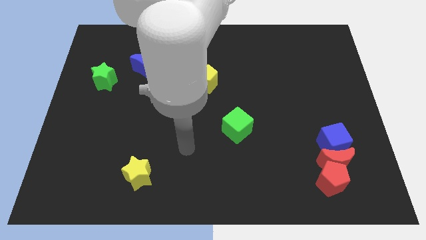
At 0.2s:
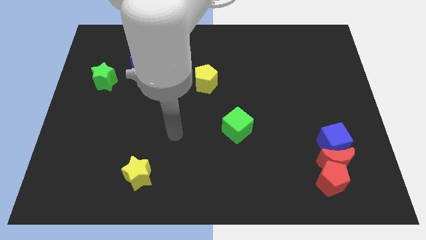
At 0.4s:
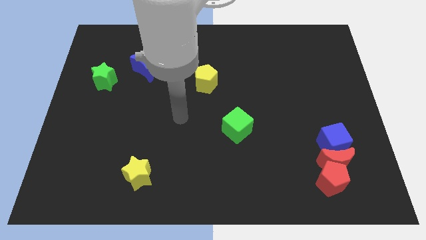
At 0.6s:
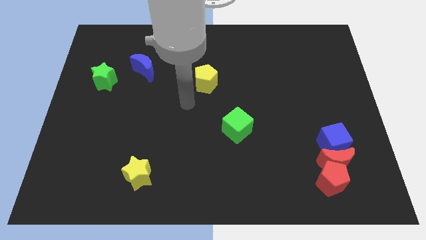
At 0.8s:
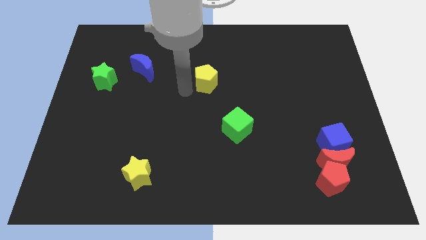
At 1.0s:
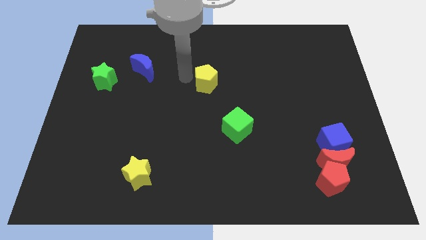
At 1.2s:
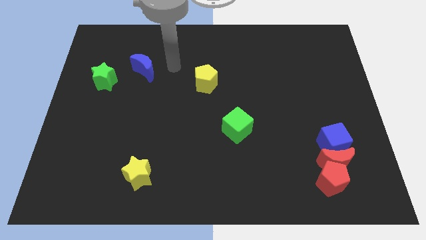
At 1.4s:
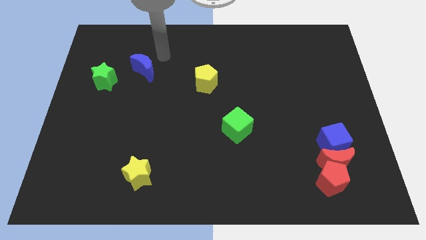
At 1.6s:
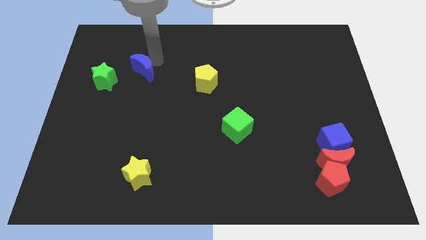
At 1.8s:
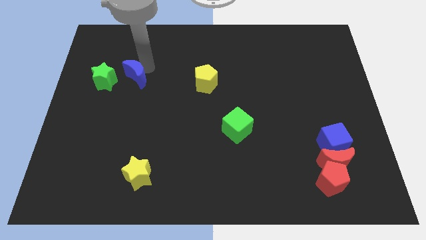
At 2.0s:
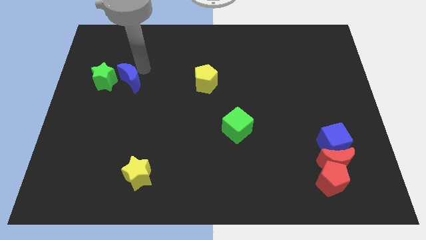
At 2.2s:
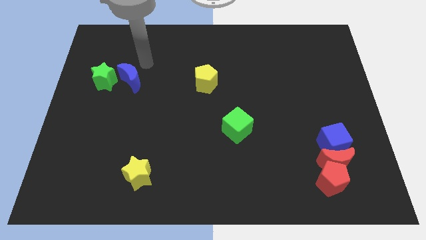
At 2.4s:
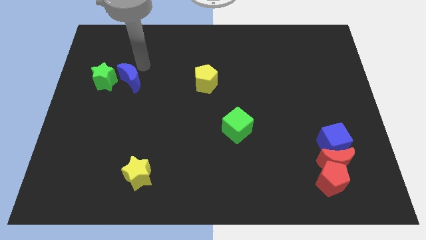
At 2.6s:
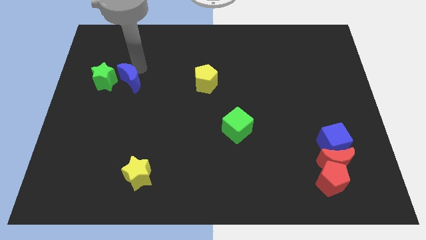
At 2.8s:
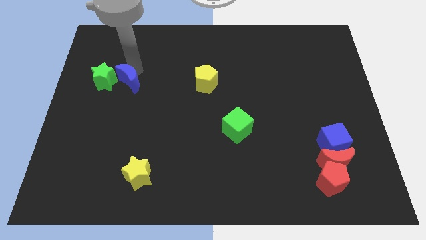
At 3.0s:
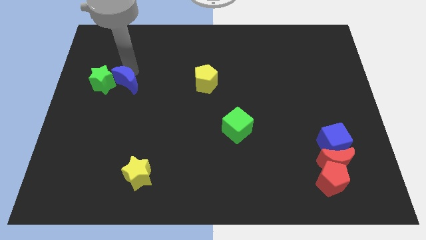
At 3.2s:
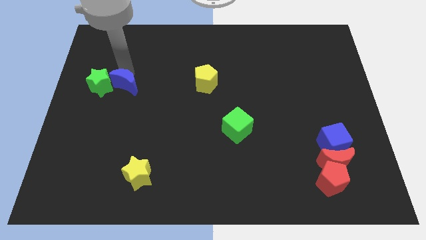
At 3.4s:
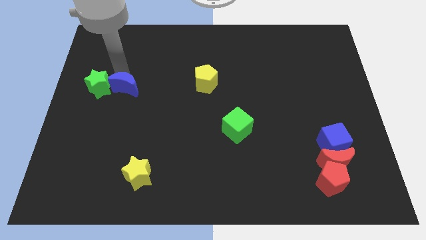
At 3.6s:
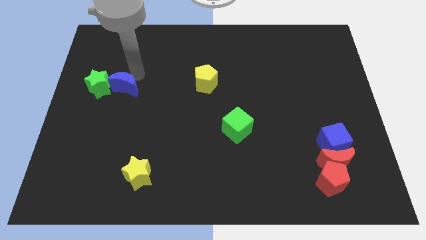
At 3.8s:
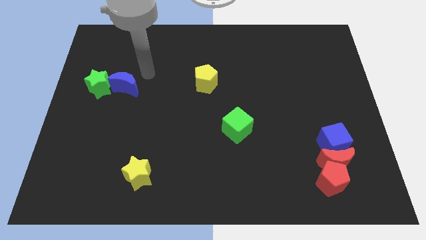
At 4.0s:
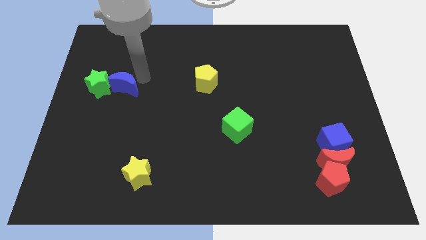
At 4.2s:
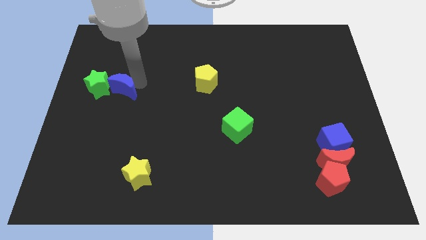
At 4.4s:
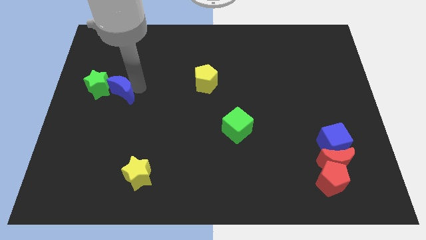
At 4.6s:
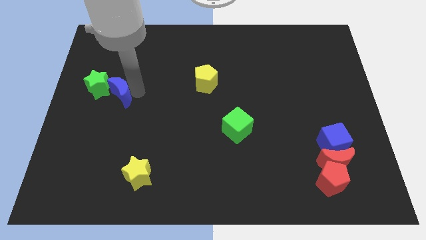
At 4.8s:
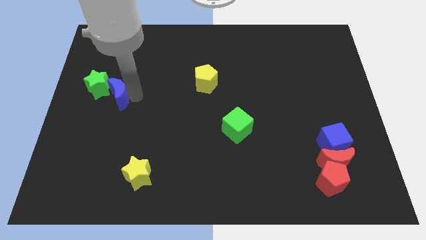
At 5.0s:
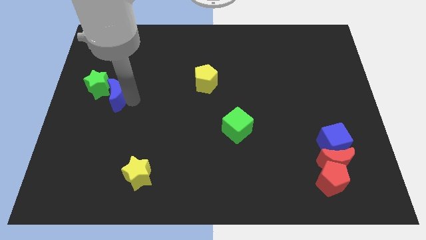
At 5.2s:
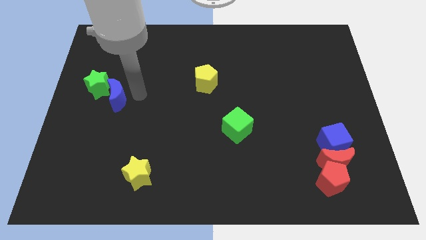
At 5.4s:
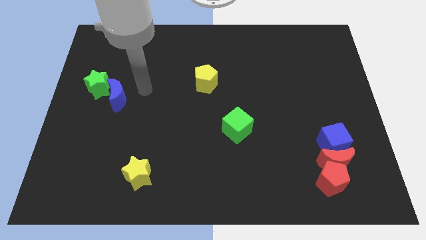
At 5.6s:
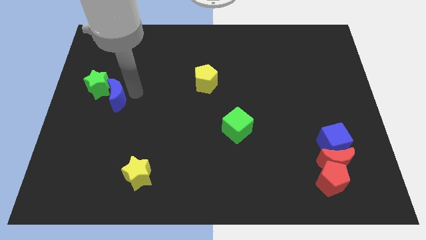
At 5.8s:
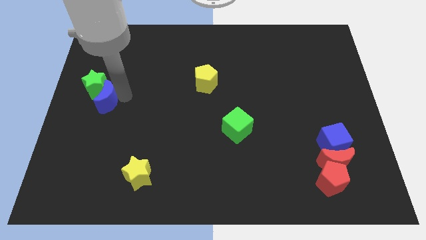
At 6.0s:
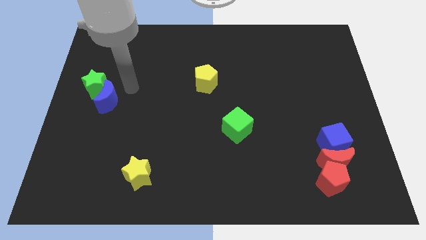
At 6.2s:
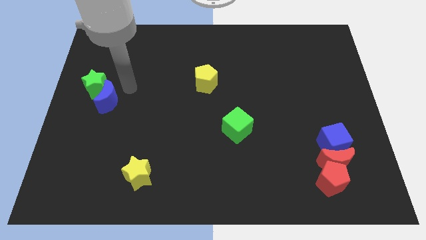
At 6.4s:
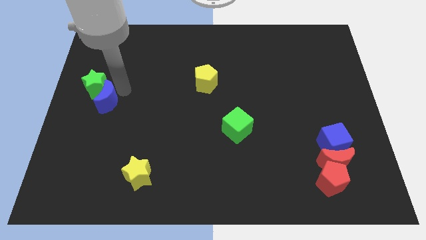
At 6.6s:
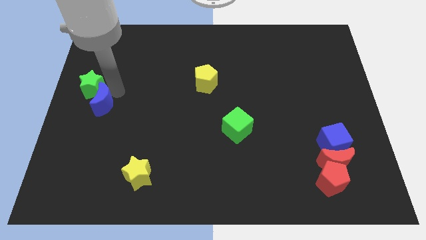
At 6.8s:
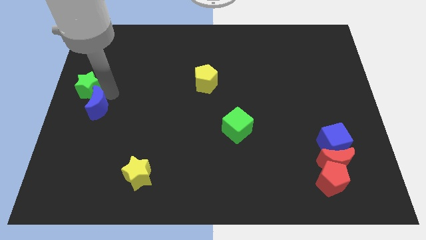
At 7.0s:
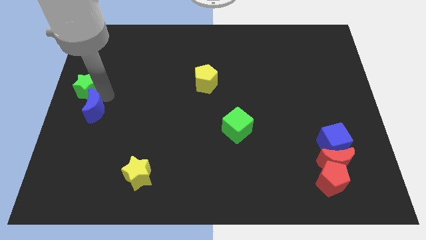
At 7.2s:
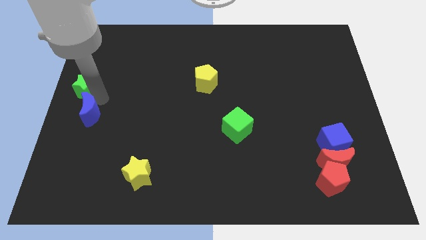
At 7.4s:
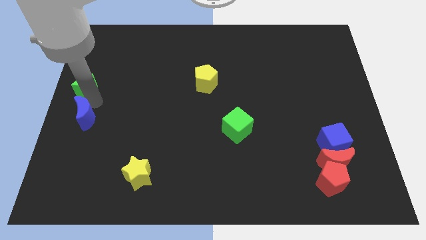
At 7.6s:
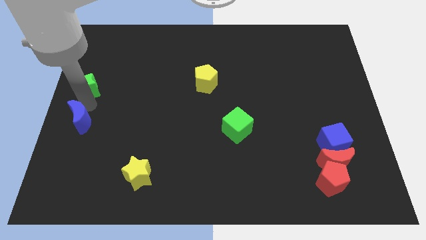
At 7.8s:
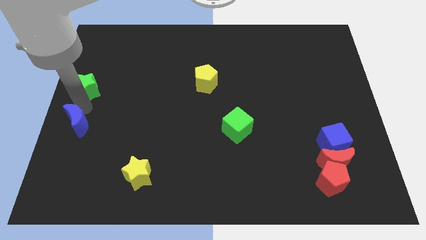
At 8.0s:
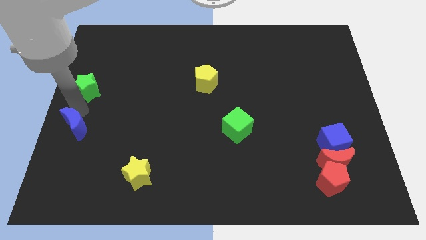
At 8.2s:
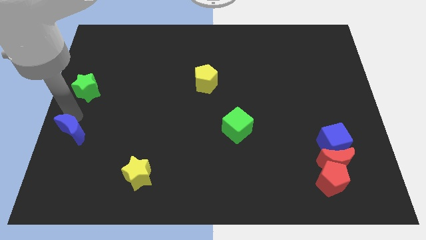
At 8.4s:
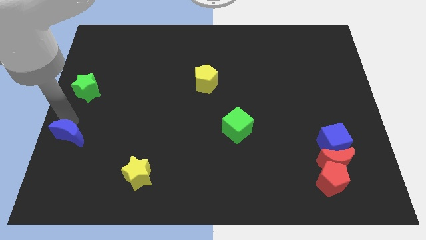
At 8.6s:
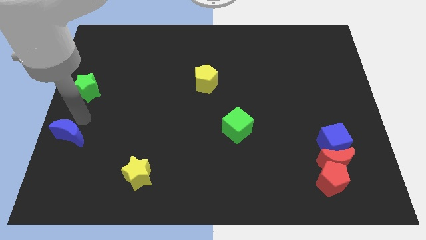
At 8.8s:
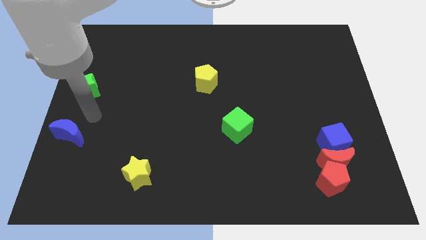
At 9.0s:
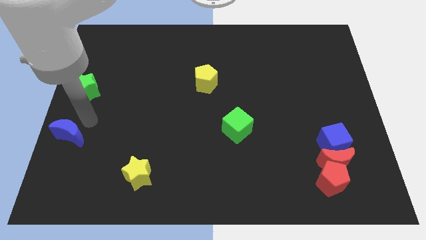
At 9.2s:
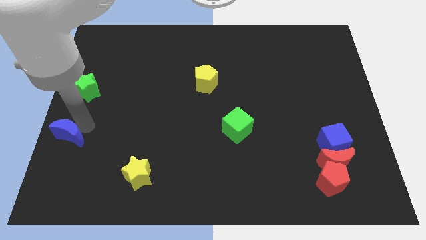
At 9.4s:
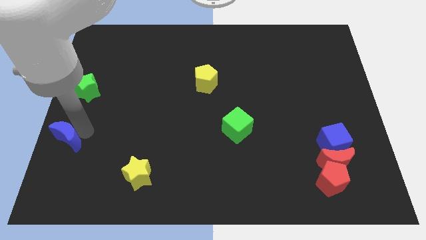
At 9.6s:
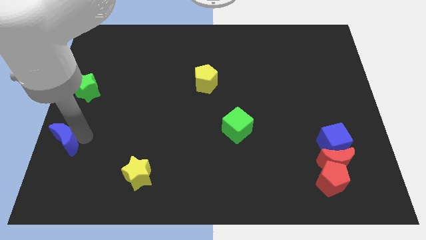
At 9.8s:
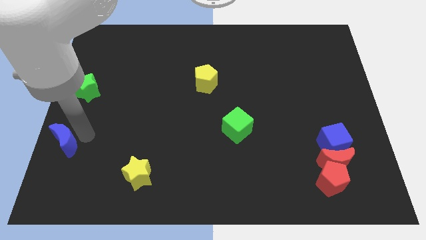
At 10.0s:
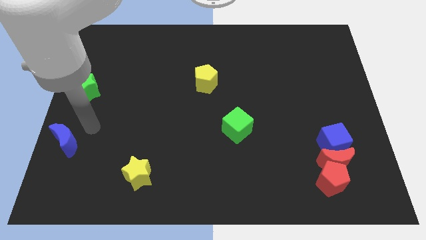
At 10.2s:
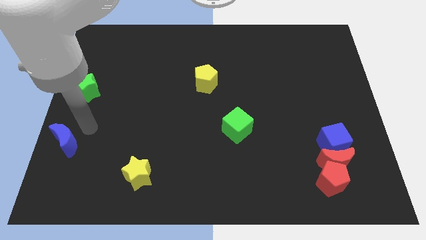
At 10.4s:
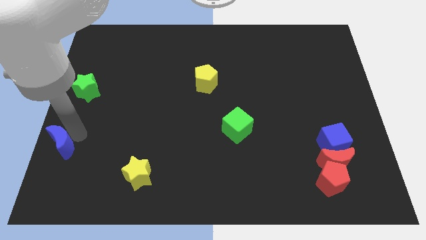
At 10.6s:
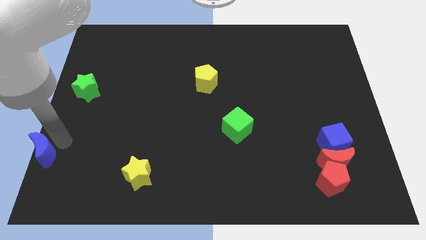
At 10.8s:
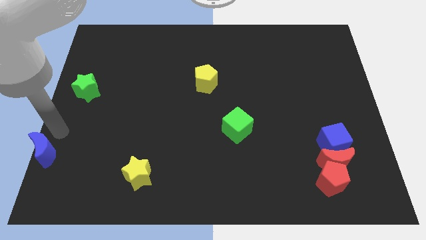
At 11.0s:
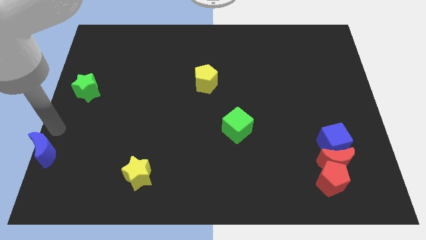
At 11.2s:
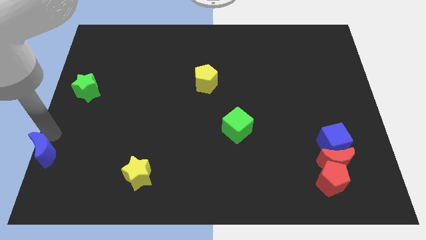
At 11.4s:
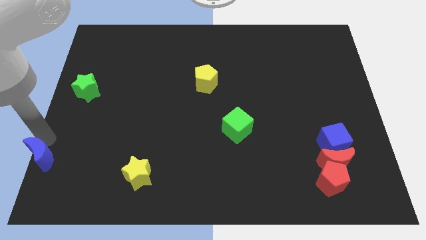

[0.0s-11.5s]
move the blue moon to the bottom left corner

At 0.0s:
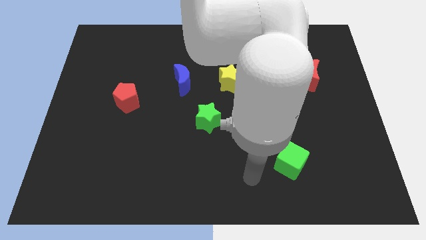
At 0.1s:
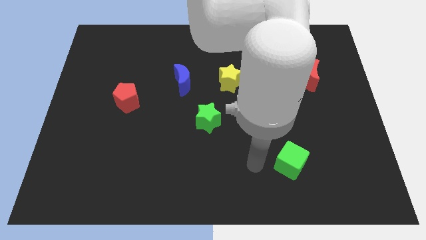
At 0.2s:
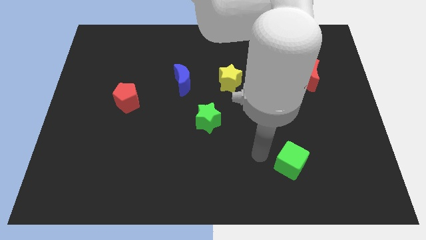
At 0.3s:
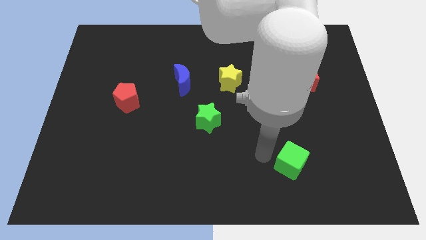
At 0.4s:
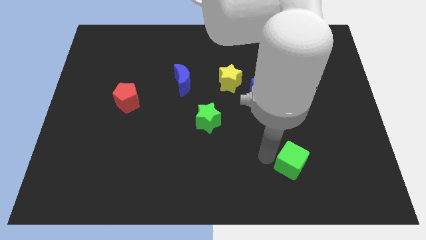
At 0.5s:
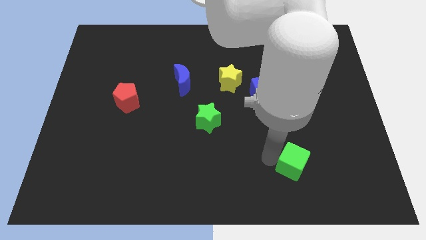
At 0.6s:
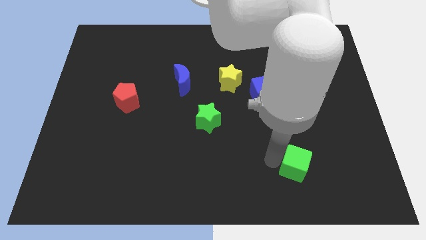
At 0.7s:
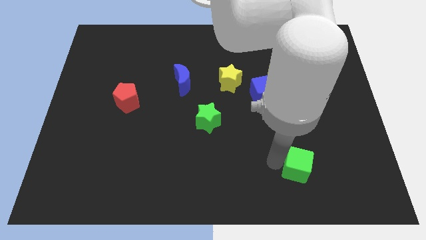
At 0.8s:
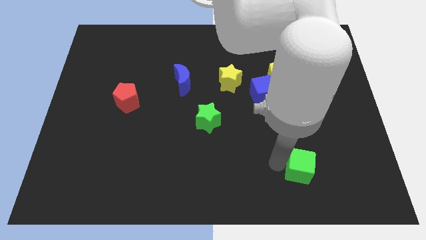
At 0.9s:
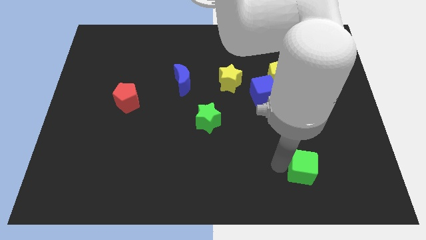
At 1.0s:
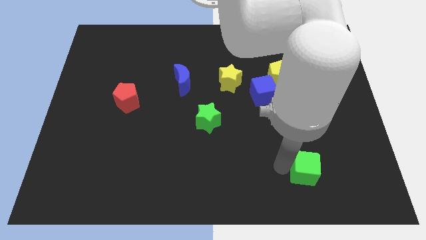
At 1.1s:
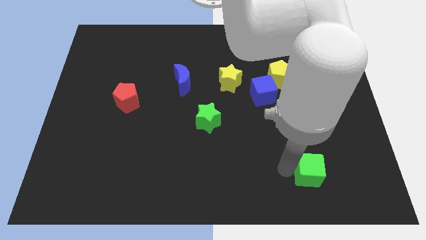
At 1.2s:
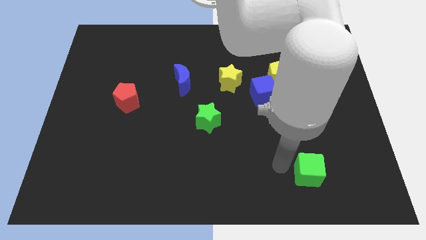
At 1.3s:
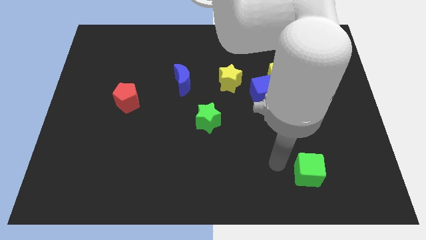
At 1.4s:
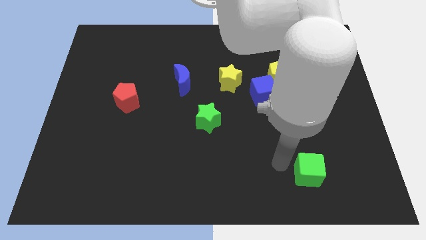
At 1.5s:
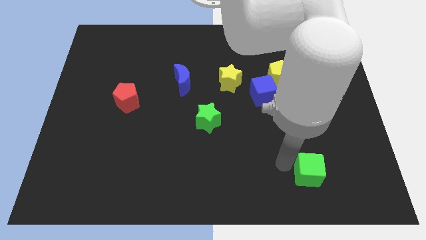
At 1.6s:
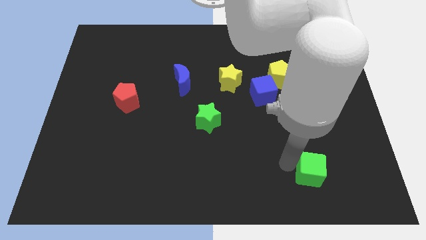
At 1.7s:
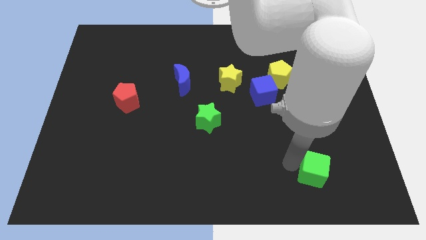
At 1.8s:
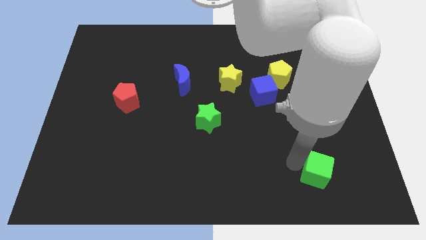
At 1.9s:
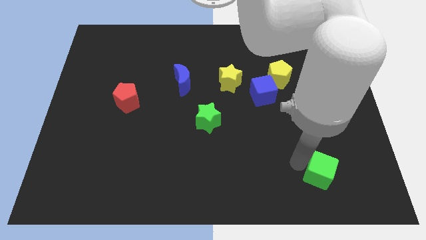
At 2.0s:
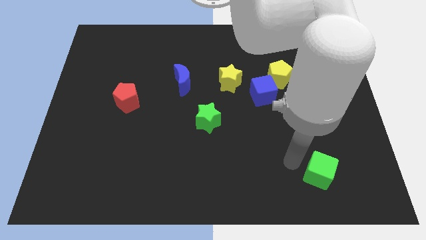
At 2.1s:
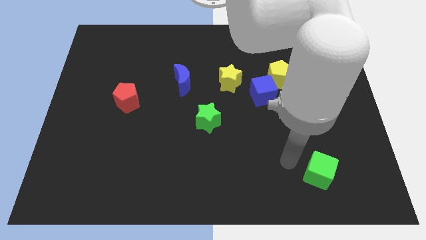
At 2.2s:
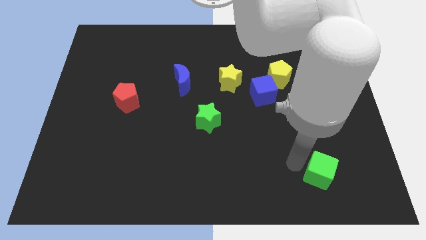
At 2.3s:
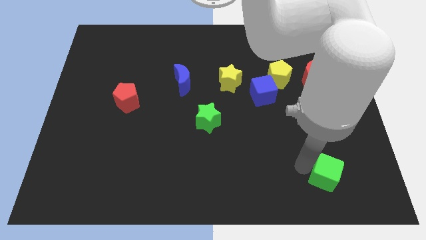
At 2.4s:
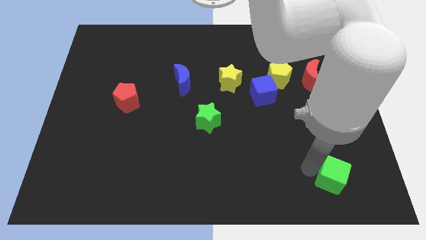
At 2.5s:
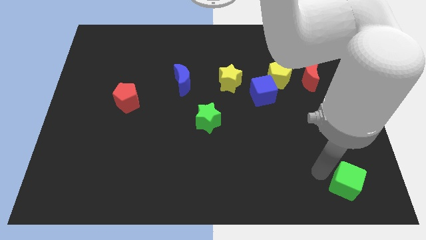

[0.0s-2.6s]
slide the green cube to the lower right corner
